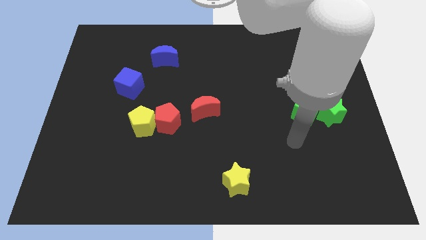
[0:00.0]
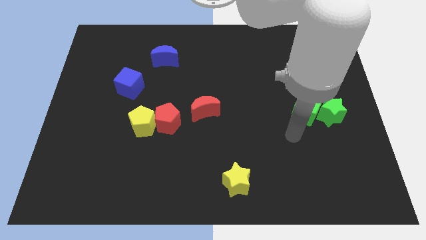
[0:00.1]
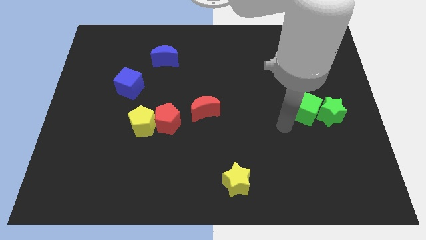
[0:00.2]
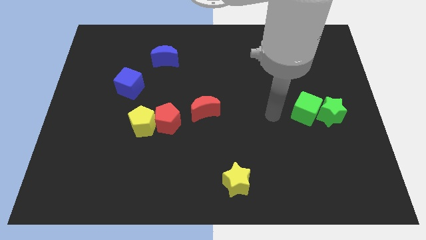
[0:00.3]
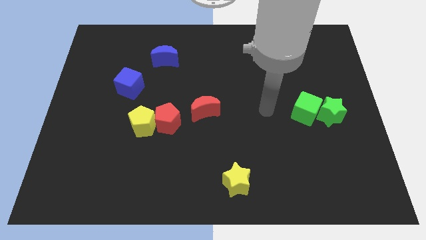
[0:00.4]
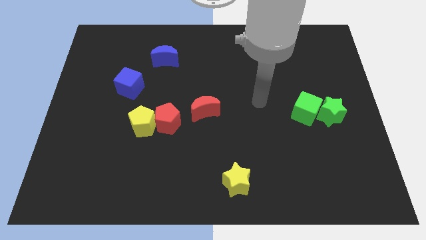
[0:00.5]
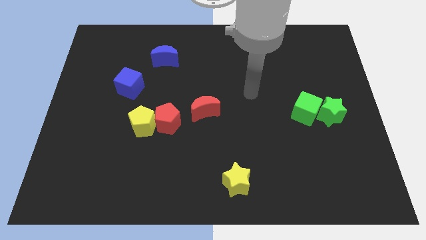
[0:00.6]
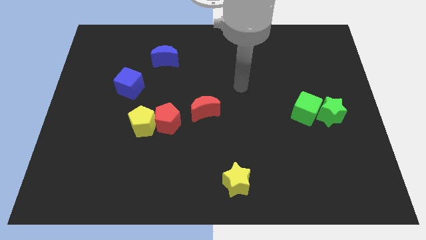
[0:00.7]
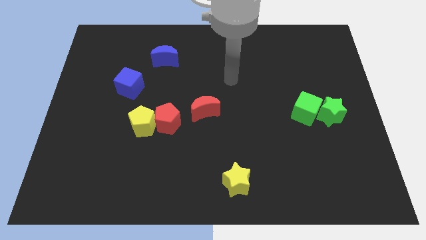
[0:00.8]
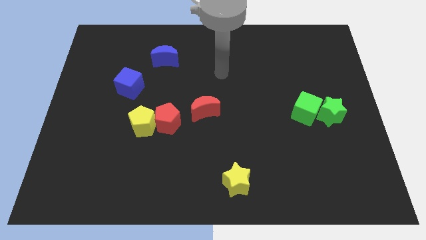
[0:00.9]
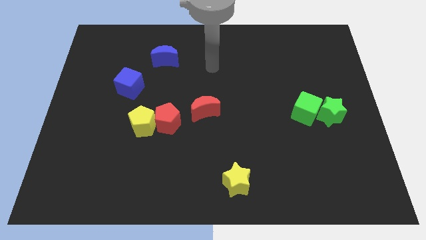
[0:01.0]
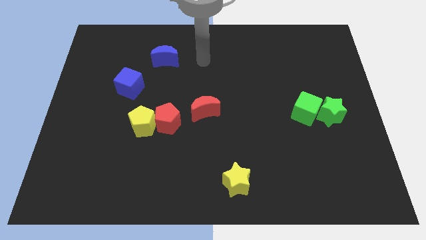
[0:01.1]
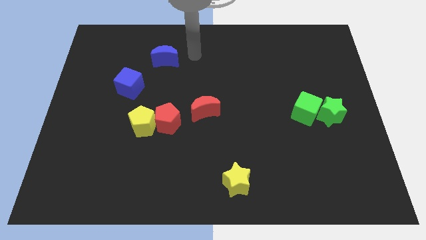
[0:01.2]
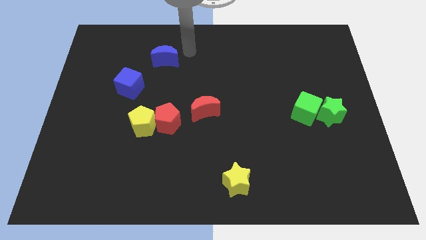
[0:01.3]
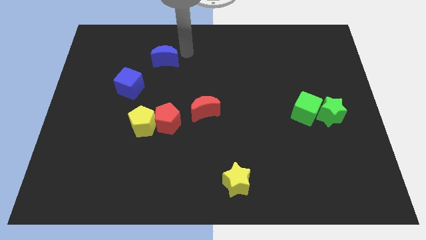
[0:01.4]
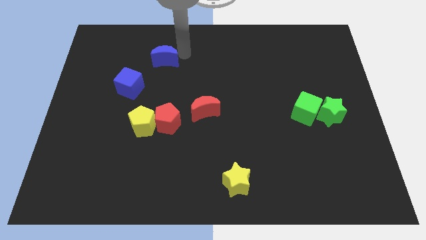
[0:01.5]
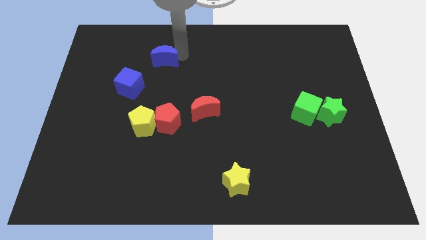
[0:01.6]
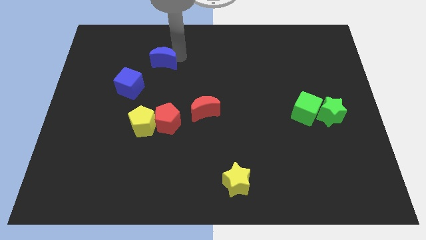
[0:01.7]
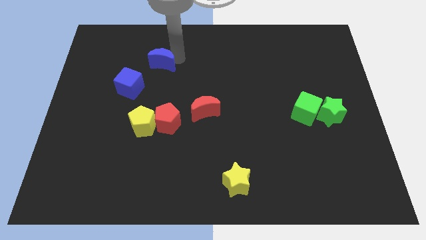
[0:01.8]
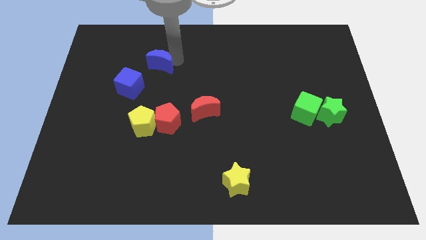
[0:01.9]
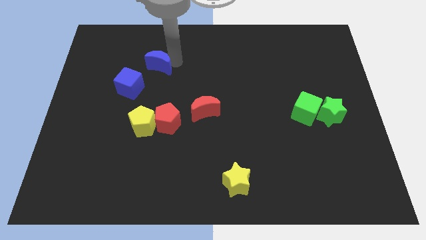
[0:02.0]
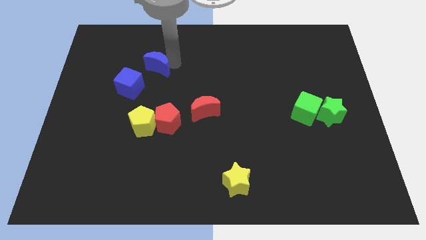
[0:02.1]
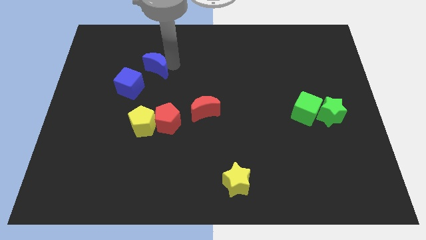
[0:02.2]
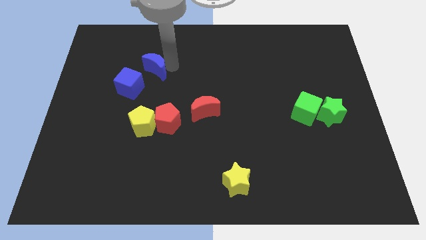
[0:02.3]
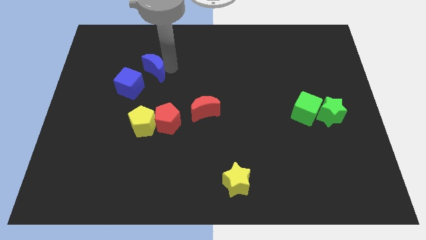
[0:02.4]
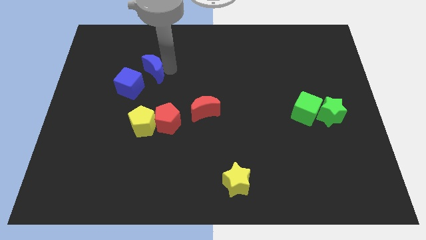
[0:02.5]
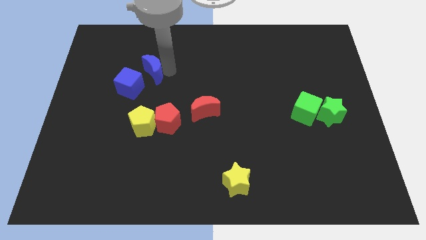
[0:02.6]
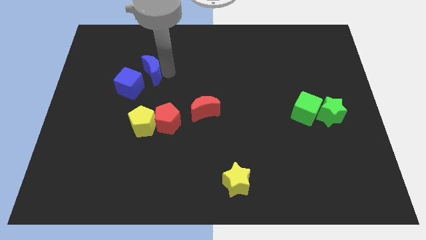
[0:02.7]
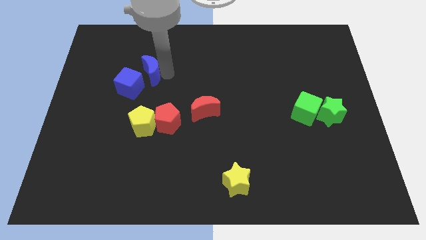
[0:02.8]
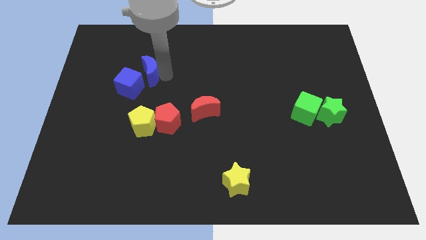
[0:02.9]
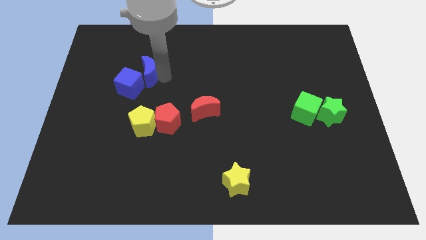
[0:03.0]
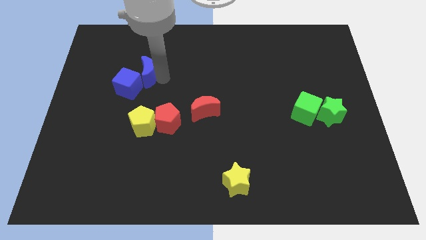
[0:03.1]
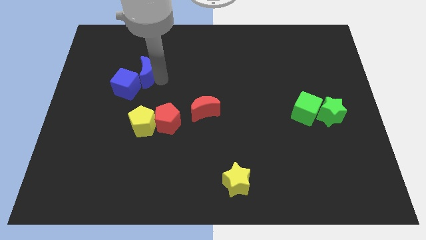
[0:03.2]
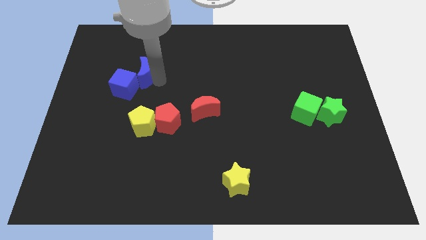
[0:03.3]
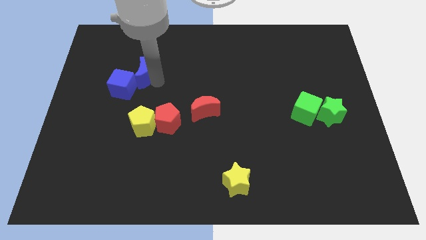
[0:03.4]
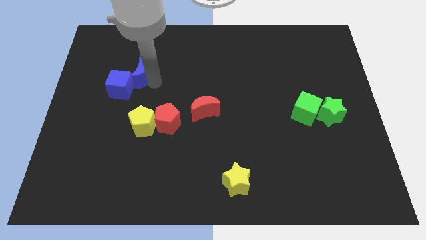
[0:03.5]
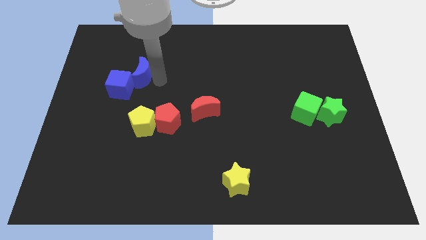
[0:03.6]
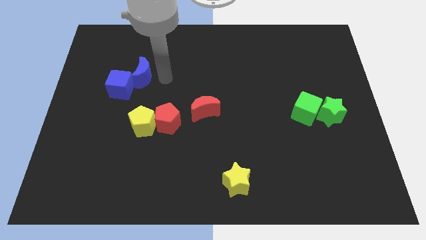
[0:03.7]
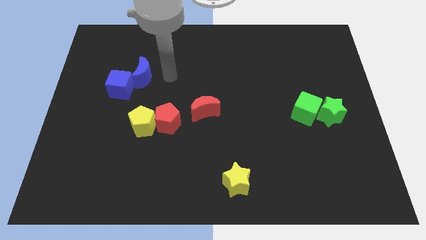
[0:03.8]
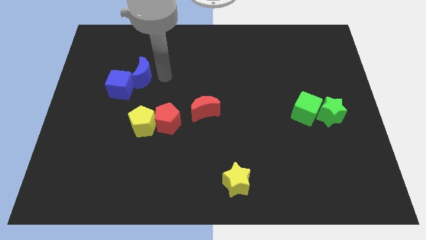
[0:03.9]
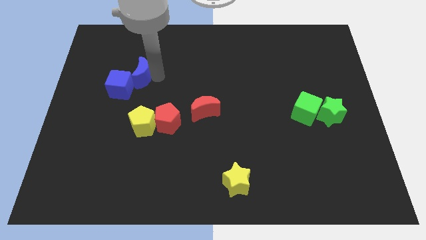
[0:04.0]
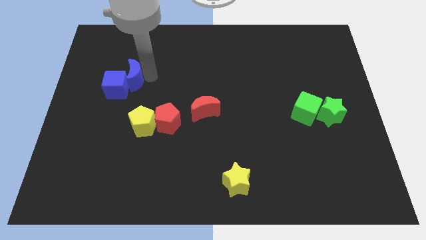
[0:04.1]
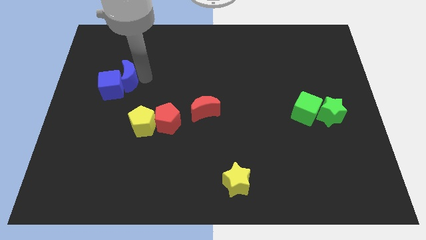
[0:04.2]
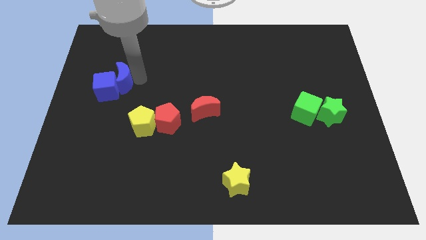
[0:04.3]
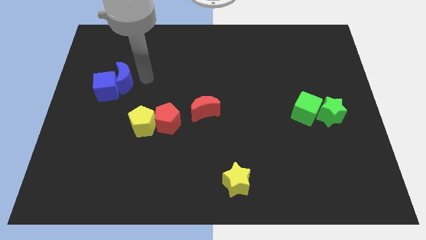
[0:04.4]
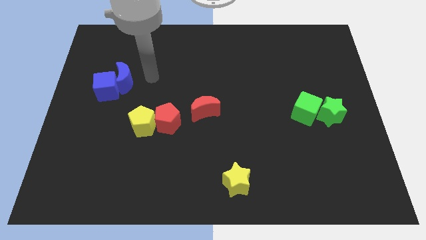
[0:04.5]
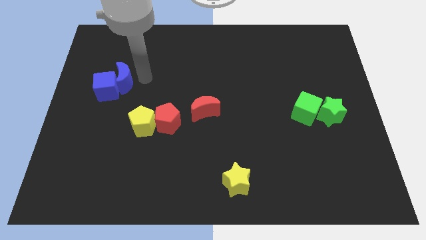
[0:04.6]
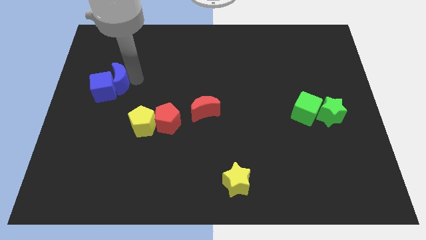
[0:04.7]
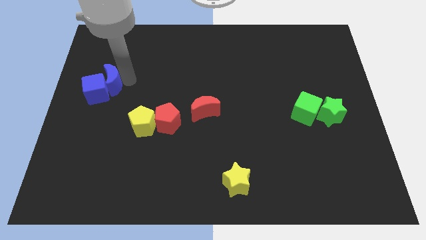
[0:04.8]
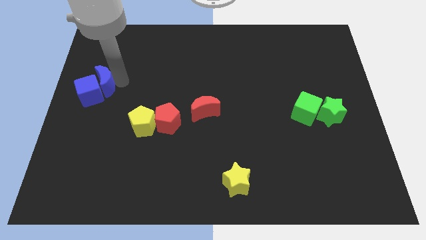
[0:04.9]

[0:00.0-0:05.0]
push the blue moon to the center left

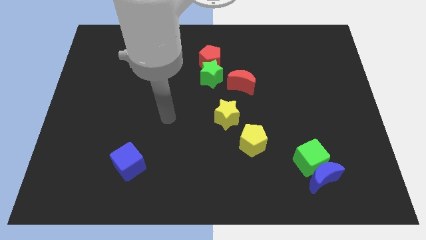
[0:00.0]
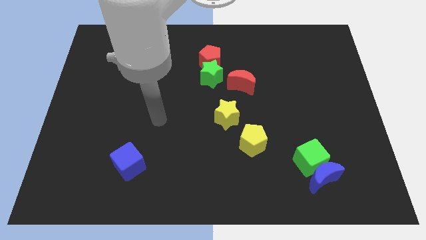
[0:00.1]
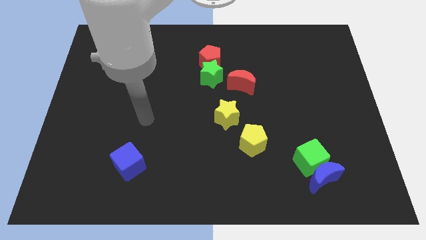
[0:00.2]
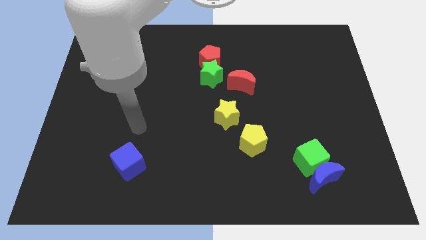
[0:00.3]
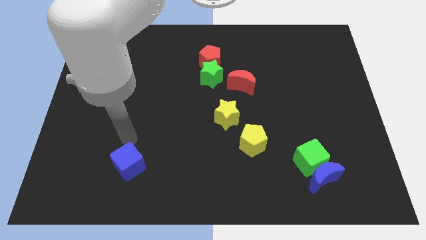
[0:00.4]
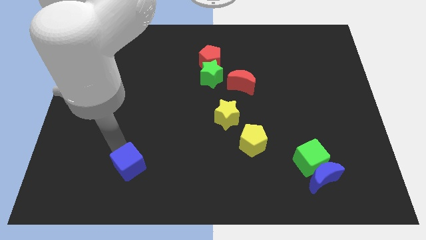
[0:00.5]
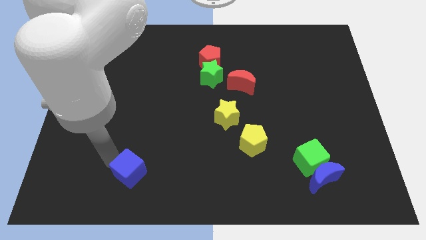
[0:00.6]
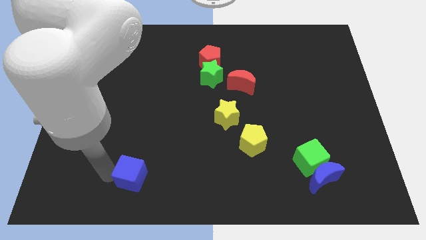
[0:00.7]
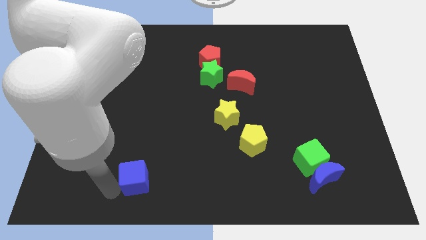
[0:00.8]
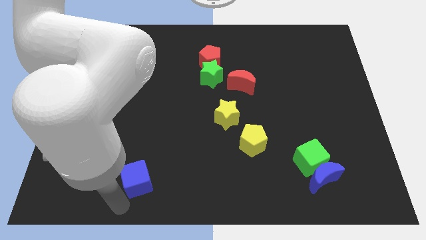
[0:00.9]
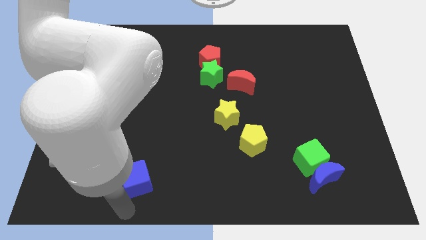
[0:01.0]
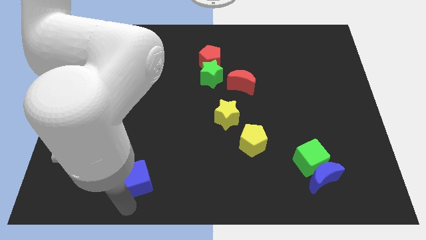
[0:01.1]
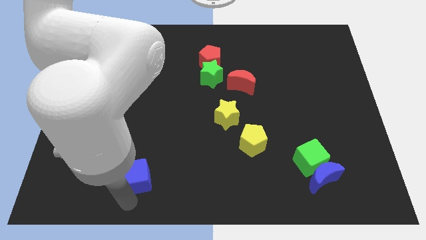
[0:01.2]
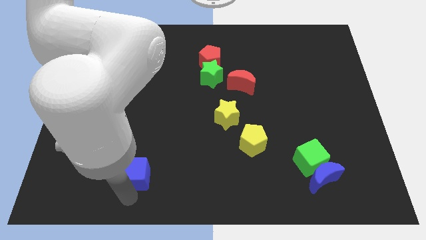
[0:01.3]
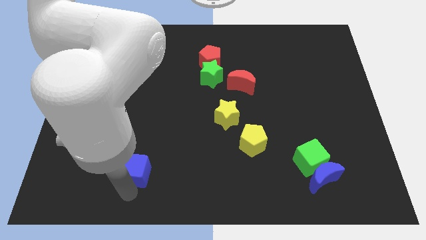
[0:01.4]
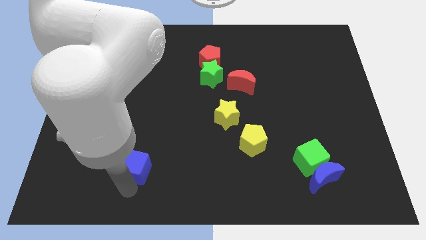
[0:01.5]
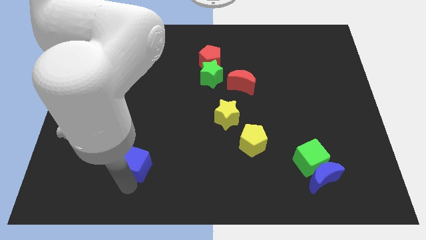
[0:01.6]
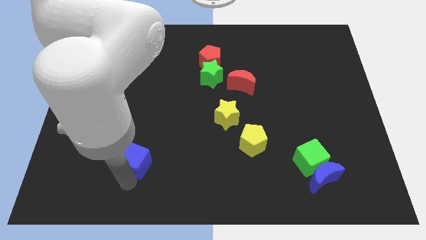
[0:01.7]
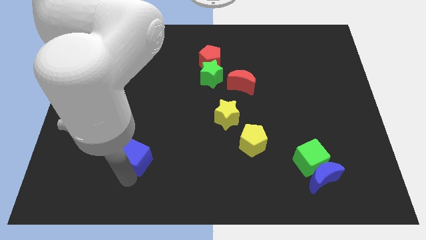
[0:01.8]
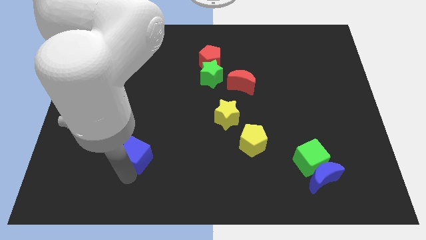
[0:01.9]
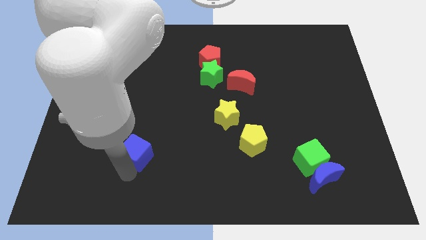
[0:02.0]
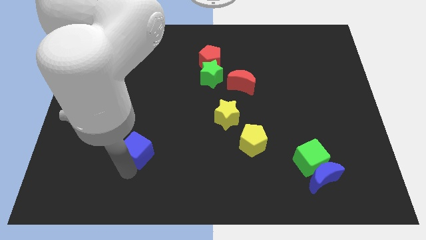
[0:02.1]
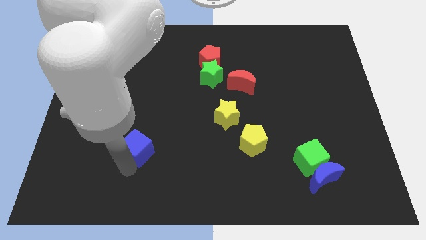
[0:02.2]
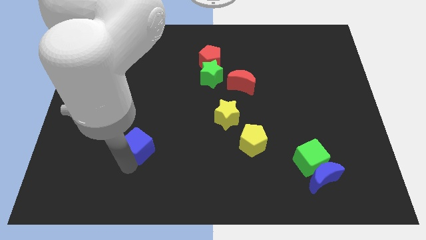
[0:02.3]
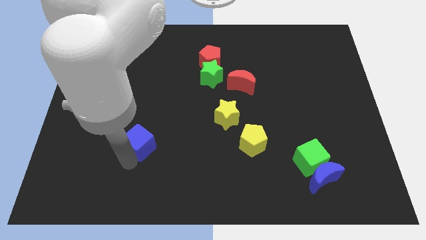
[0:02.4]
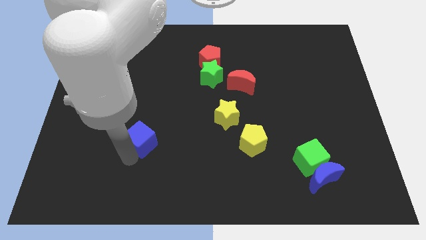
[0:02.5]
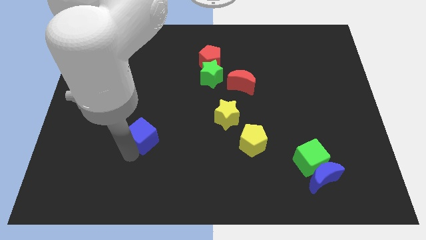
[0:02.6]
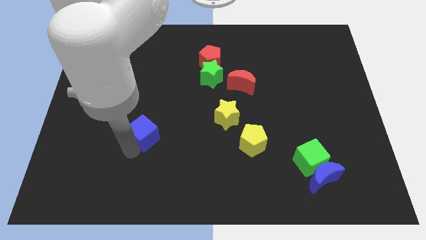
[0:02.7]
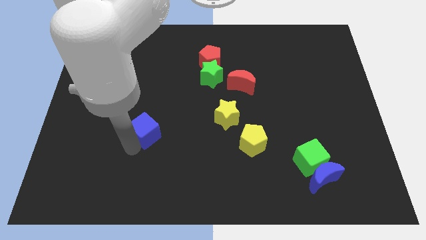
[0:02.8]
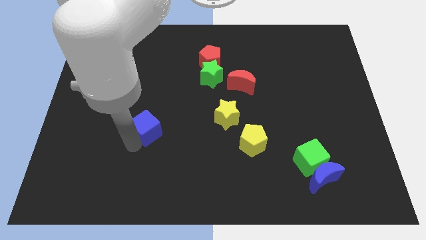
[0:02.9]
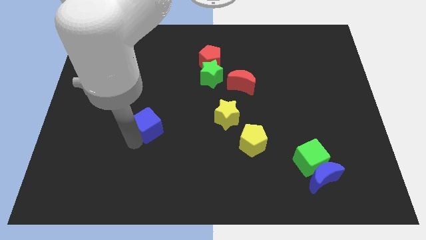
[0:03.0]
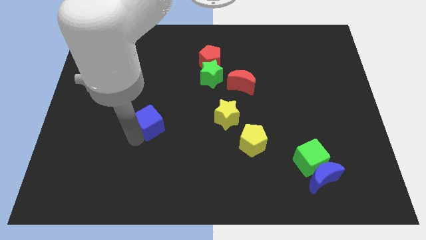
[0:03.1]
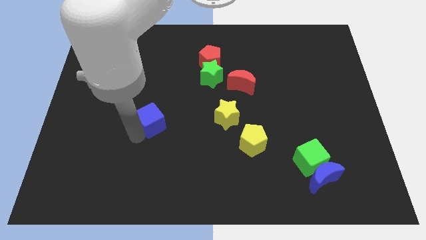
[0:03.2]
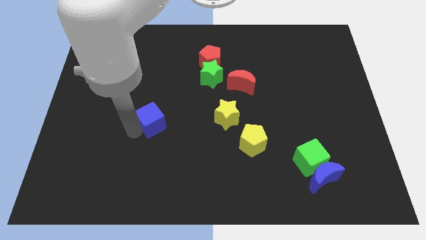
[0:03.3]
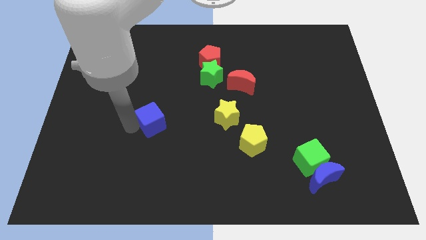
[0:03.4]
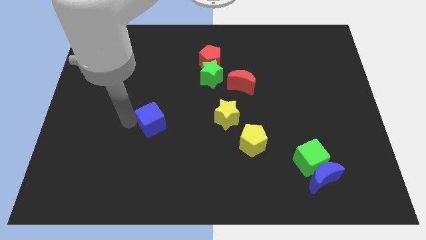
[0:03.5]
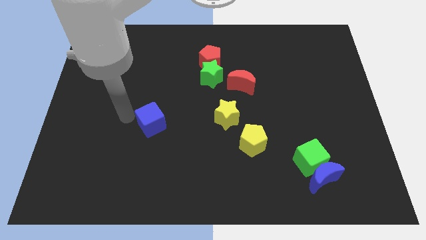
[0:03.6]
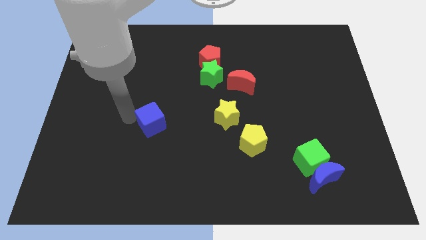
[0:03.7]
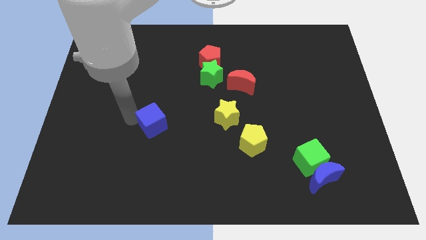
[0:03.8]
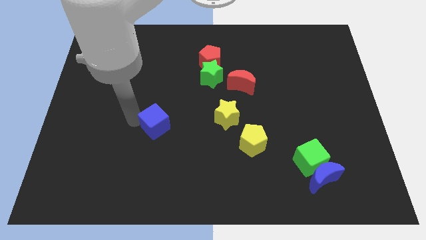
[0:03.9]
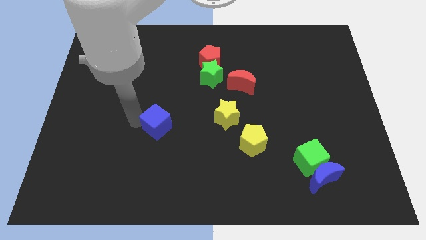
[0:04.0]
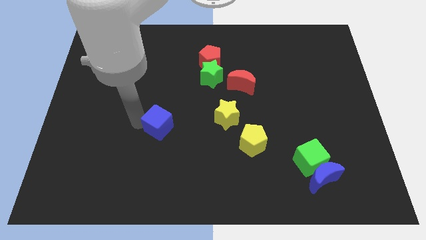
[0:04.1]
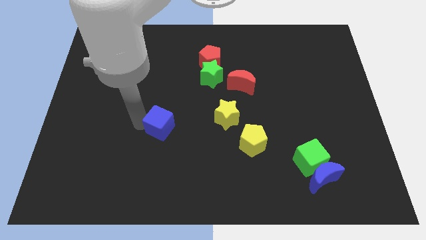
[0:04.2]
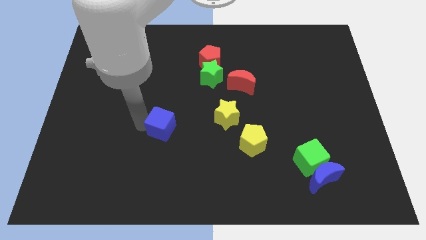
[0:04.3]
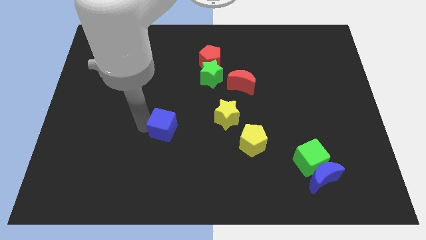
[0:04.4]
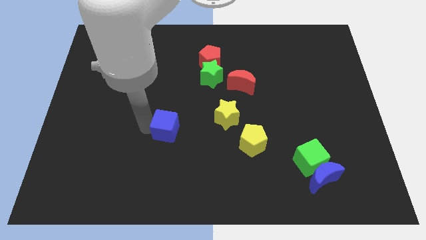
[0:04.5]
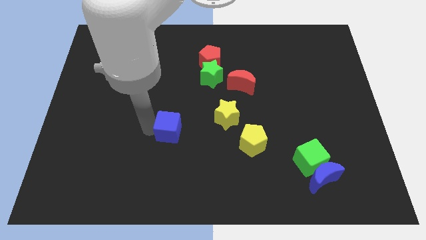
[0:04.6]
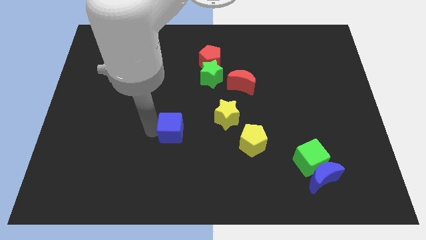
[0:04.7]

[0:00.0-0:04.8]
move the blue cube to the center of the board
